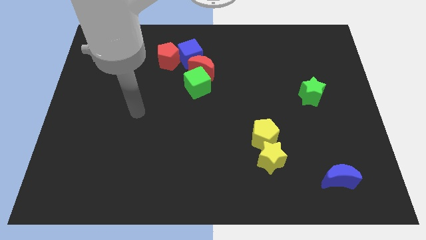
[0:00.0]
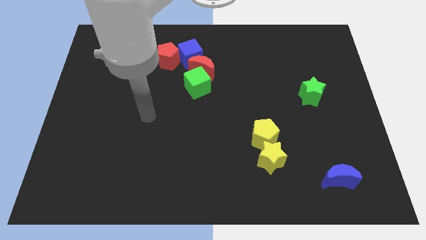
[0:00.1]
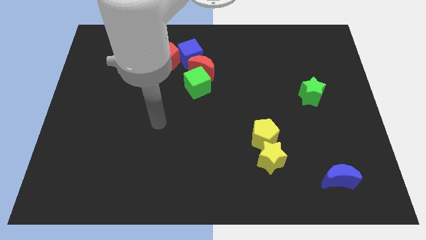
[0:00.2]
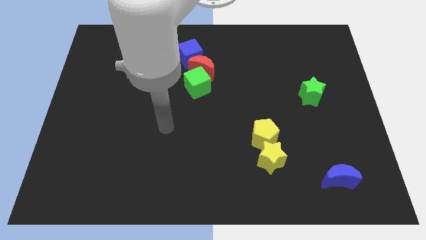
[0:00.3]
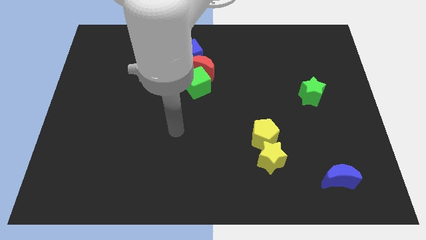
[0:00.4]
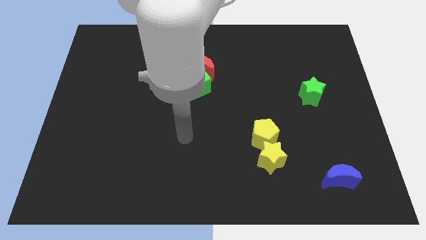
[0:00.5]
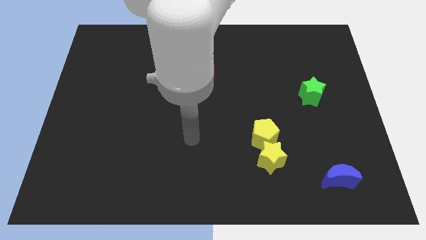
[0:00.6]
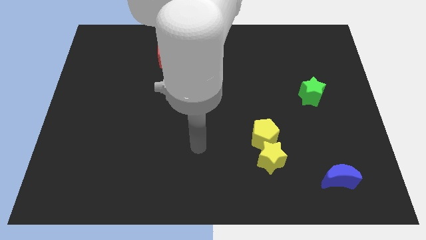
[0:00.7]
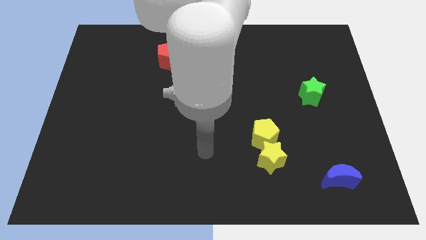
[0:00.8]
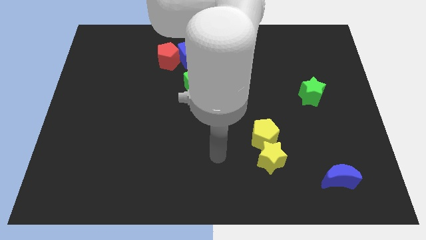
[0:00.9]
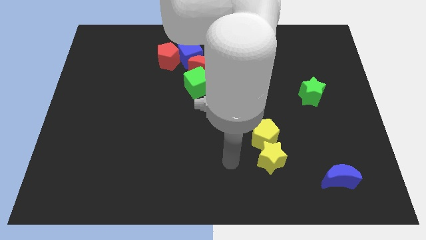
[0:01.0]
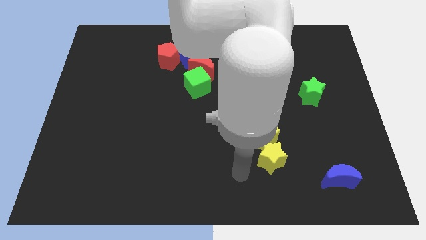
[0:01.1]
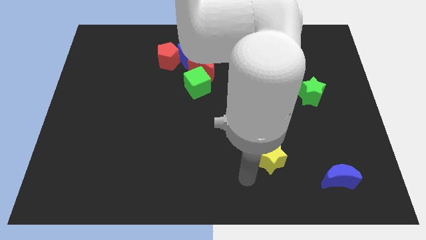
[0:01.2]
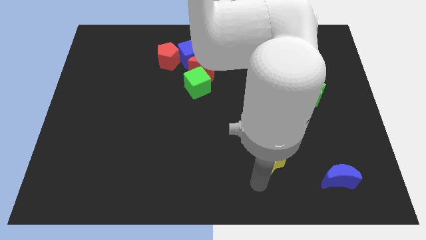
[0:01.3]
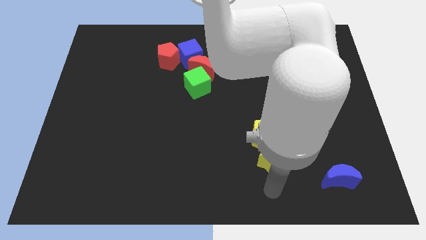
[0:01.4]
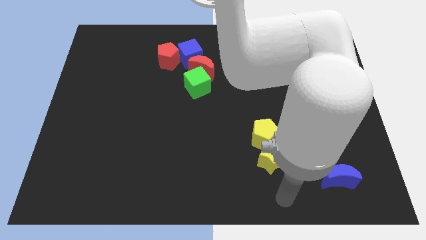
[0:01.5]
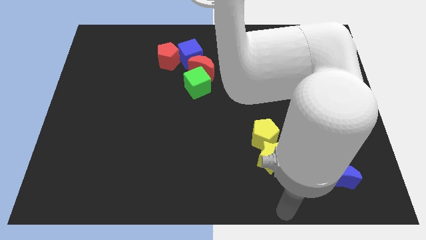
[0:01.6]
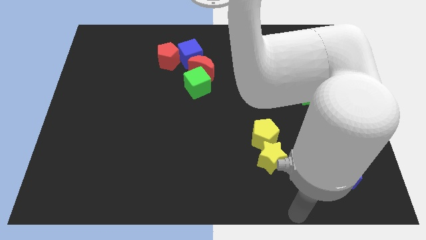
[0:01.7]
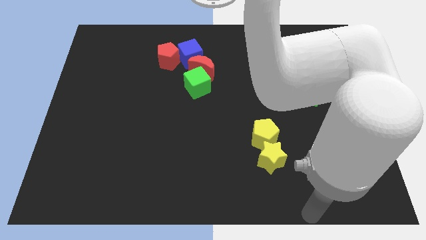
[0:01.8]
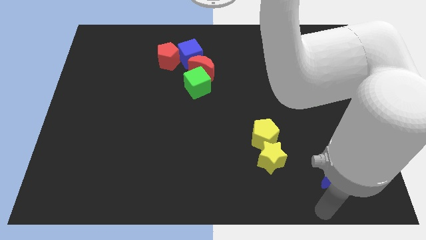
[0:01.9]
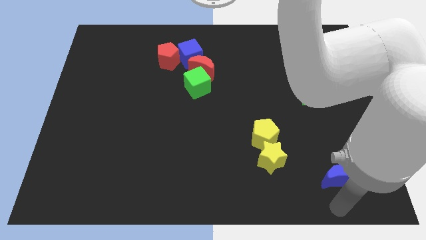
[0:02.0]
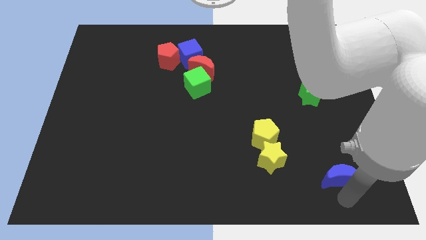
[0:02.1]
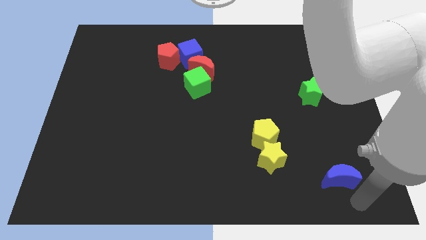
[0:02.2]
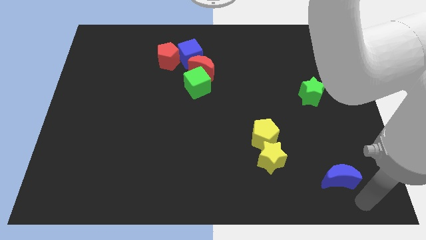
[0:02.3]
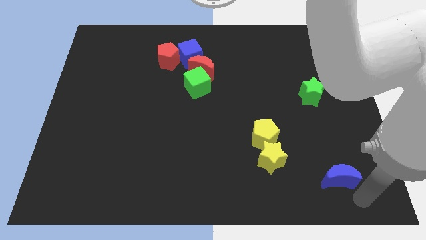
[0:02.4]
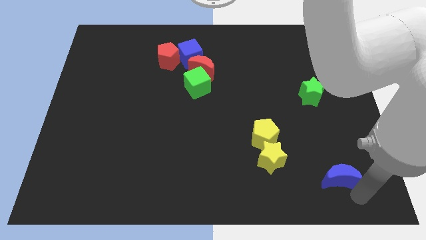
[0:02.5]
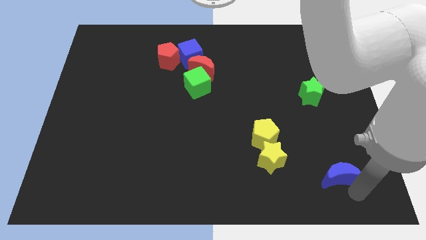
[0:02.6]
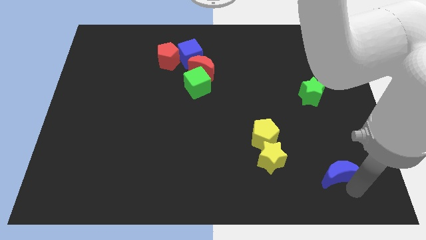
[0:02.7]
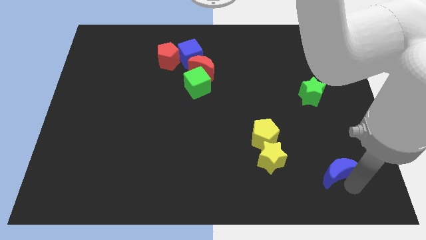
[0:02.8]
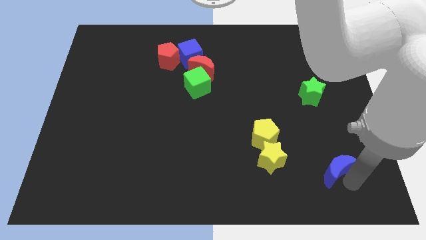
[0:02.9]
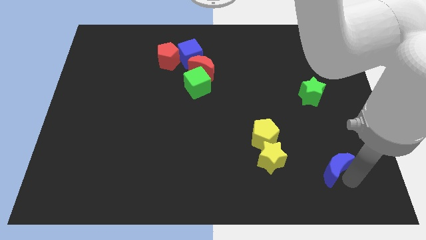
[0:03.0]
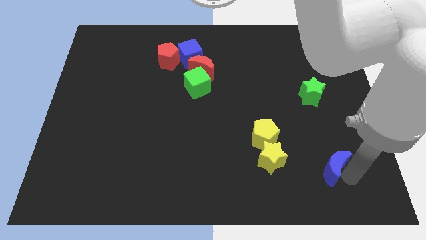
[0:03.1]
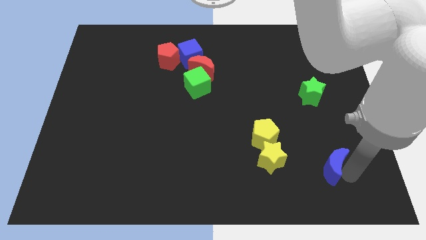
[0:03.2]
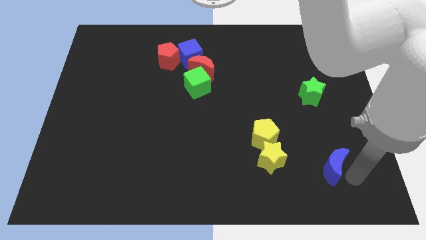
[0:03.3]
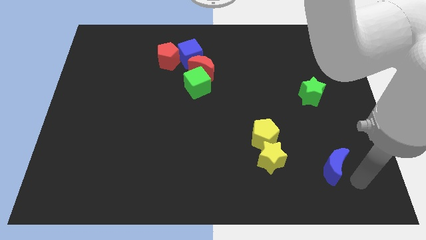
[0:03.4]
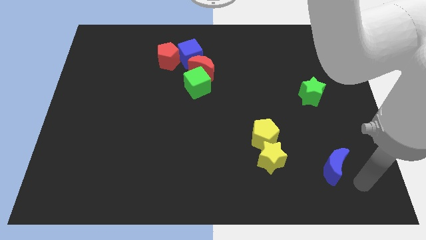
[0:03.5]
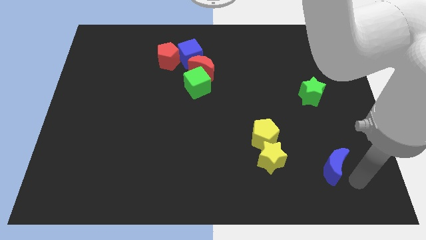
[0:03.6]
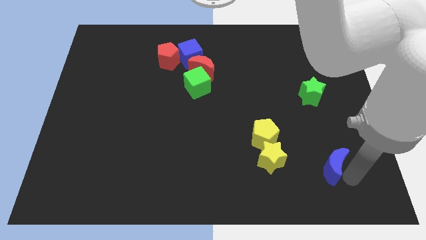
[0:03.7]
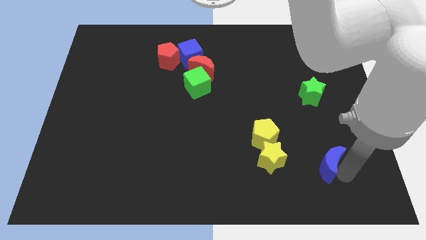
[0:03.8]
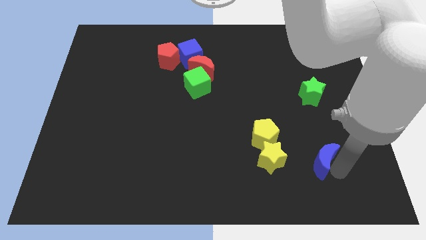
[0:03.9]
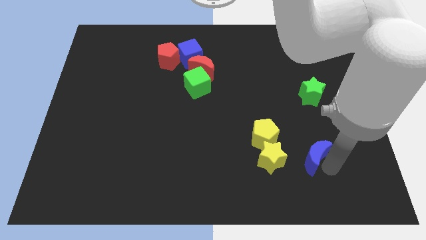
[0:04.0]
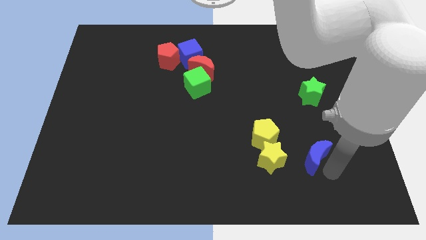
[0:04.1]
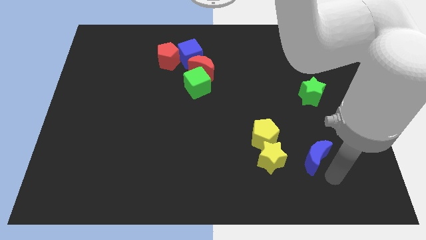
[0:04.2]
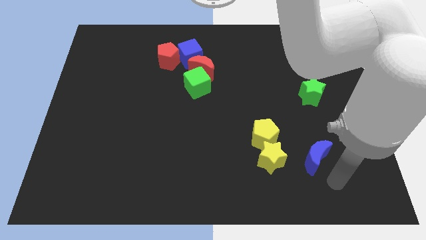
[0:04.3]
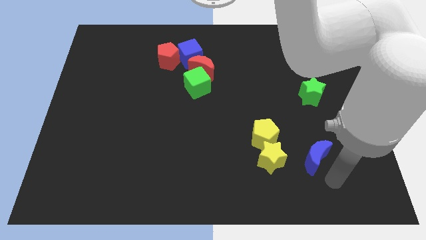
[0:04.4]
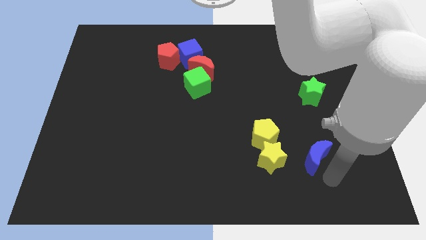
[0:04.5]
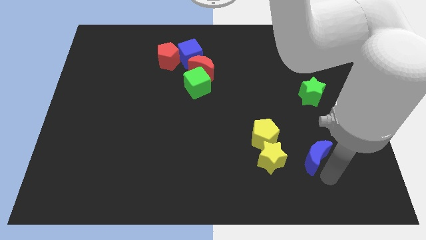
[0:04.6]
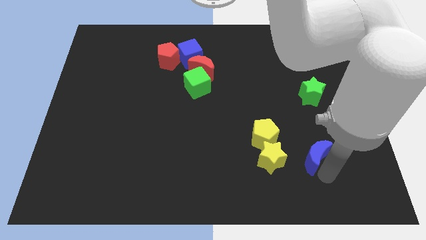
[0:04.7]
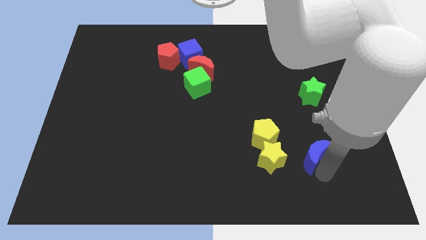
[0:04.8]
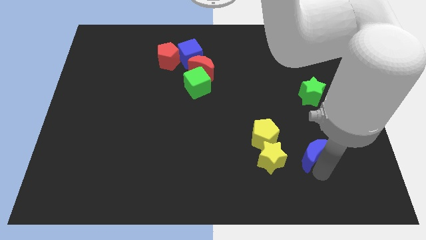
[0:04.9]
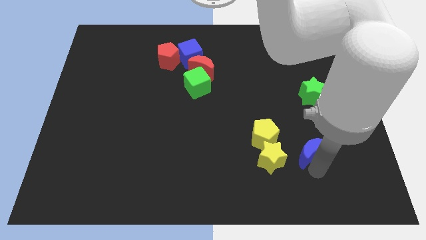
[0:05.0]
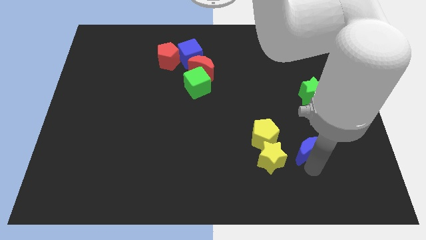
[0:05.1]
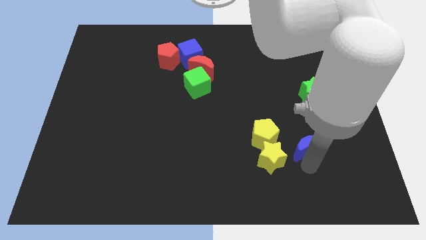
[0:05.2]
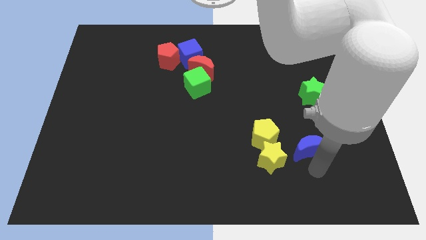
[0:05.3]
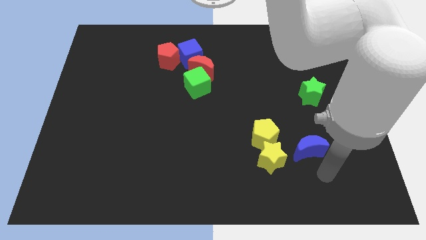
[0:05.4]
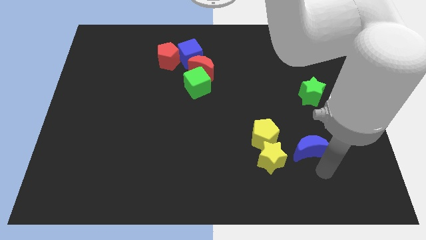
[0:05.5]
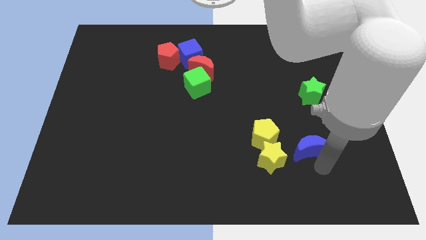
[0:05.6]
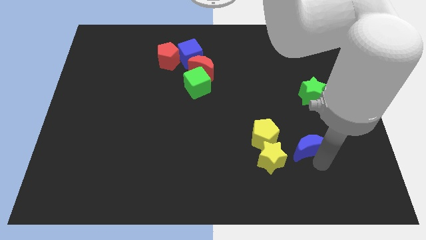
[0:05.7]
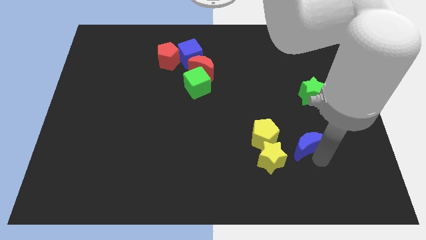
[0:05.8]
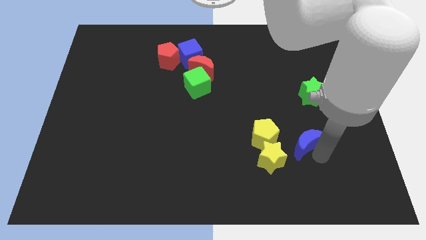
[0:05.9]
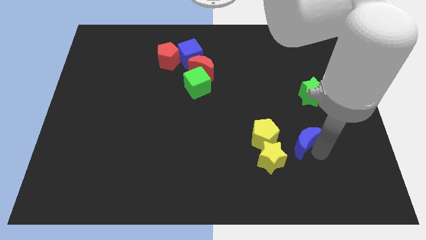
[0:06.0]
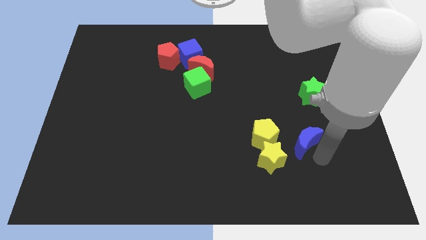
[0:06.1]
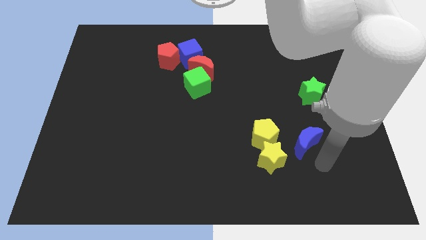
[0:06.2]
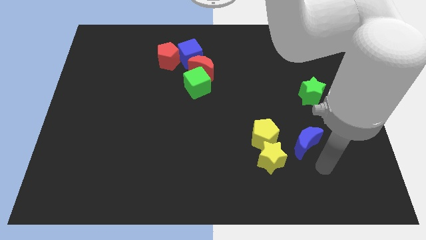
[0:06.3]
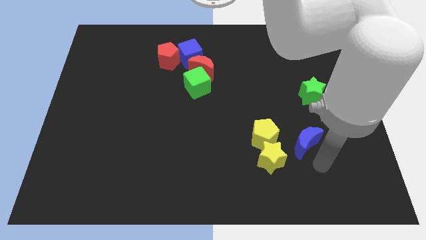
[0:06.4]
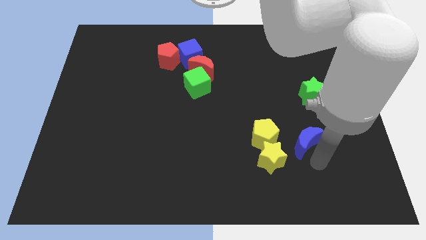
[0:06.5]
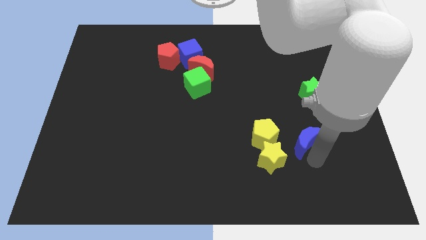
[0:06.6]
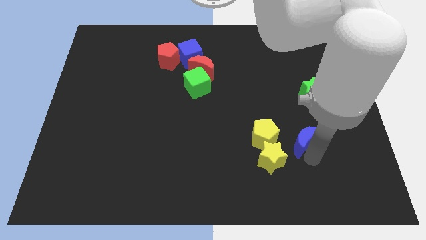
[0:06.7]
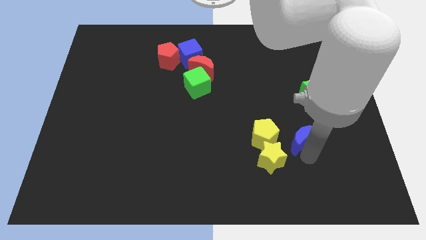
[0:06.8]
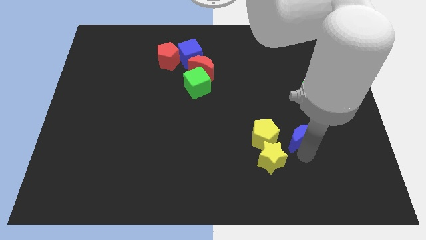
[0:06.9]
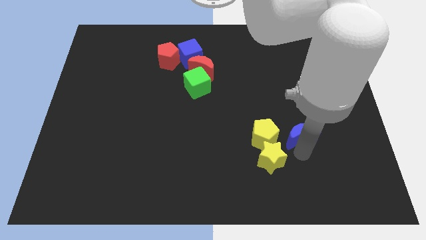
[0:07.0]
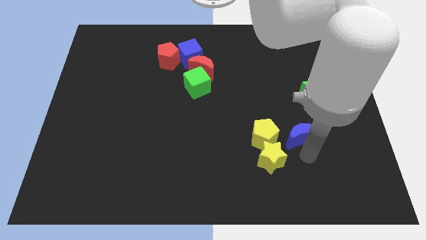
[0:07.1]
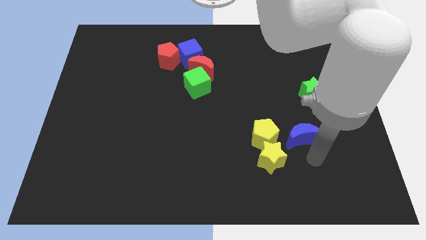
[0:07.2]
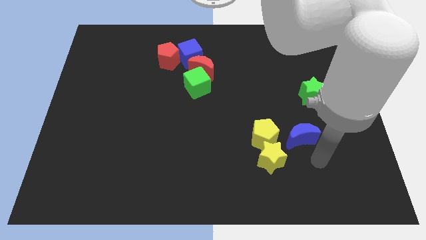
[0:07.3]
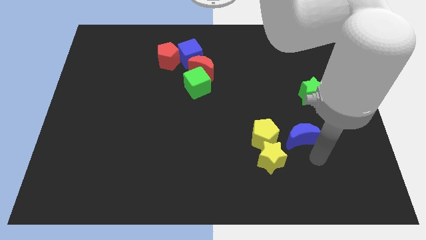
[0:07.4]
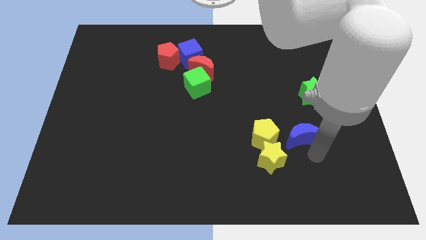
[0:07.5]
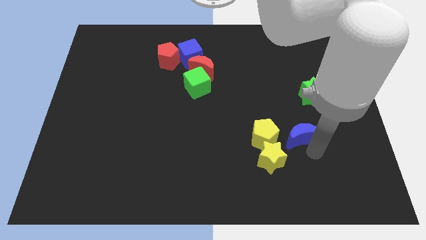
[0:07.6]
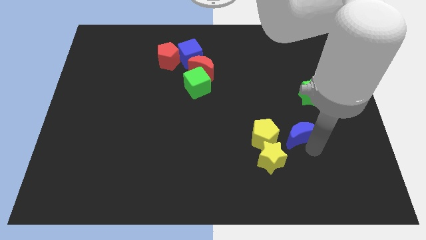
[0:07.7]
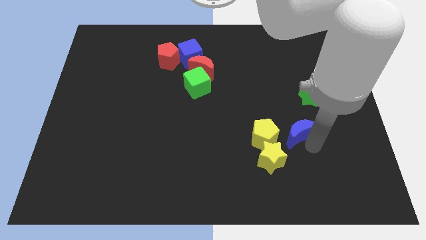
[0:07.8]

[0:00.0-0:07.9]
slide the blue moon to the top right side of the yellow pentagon
